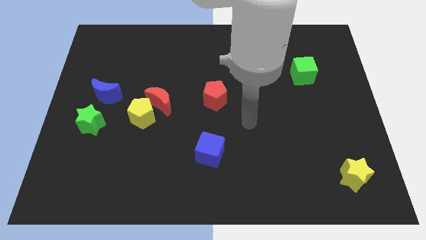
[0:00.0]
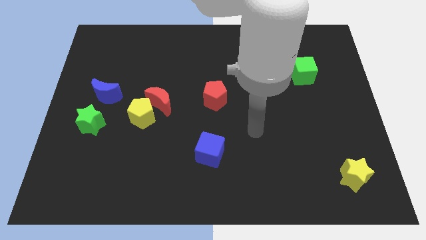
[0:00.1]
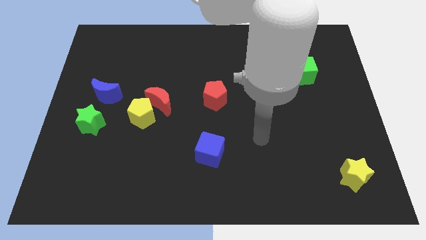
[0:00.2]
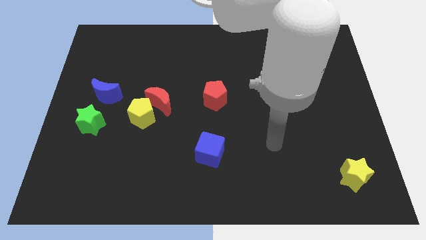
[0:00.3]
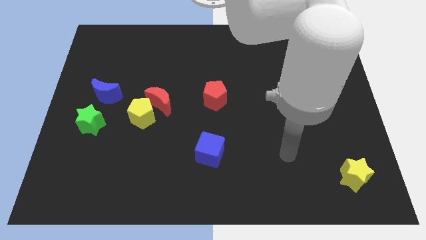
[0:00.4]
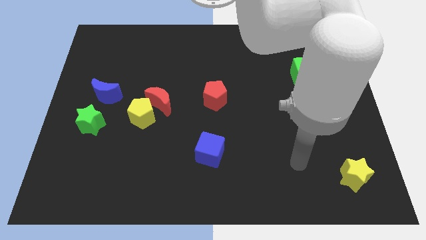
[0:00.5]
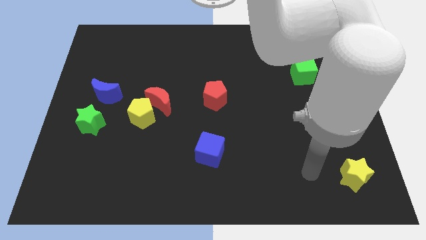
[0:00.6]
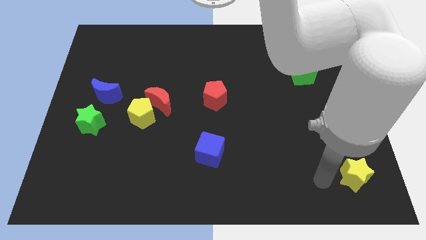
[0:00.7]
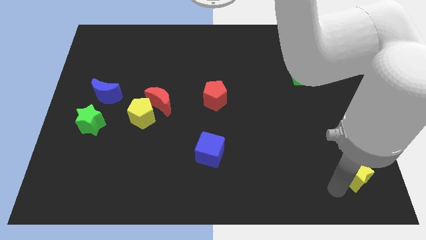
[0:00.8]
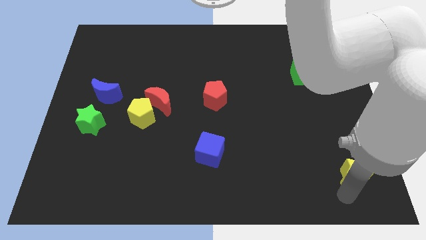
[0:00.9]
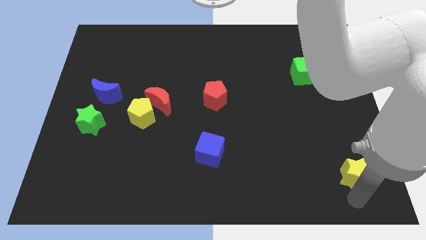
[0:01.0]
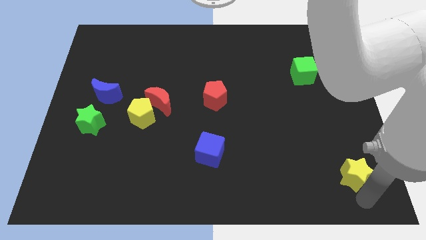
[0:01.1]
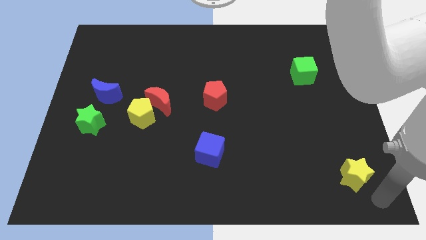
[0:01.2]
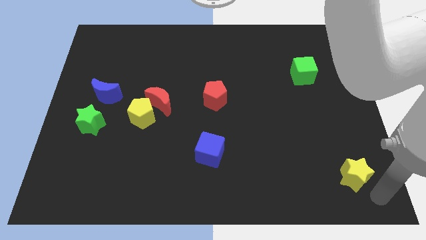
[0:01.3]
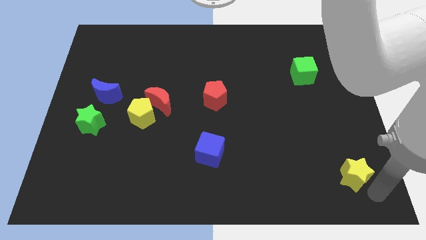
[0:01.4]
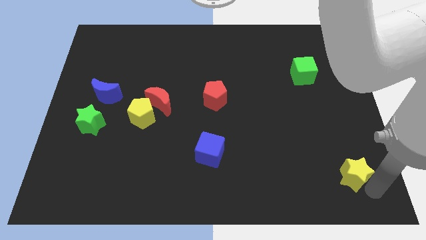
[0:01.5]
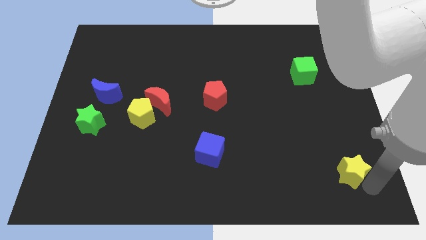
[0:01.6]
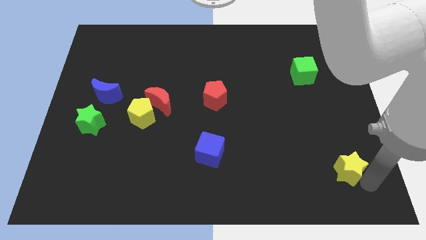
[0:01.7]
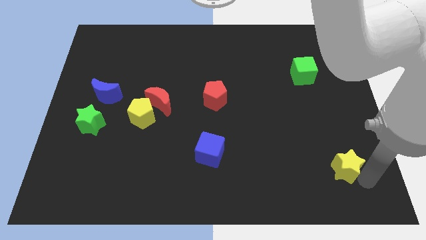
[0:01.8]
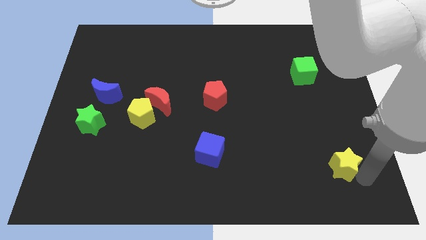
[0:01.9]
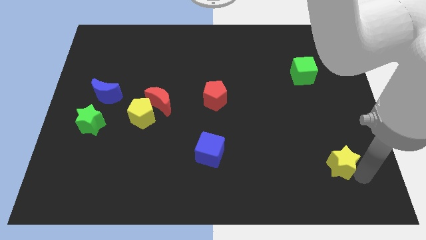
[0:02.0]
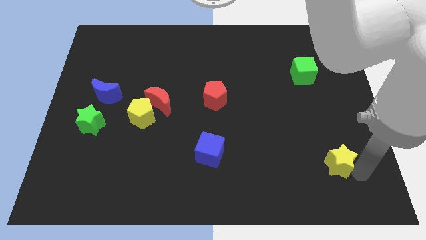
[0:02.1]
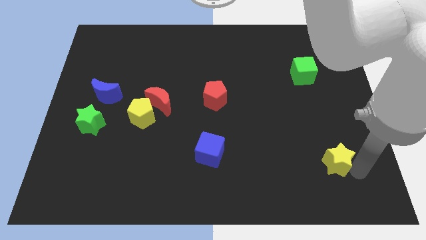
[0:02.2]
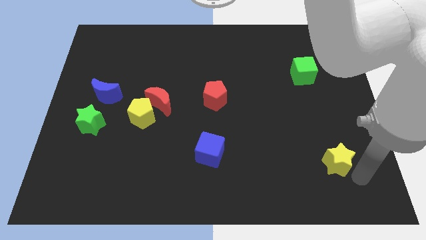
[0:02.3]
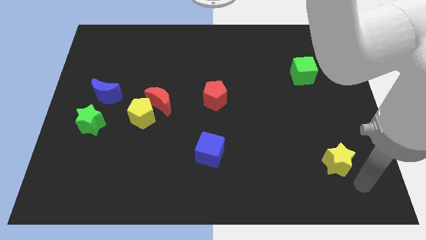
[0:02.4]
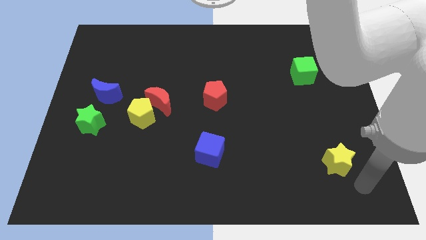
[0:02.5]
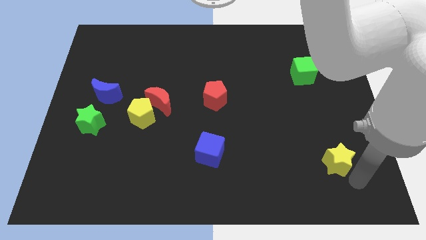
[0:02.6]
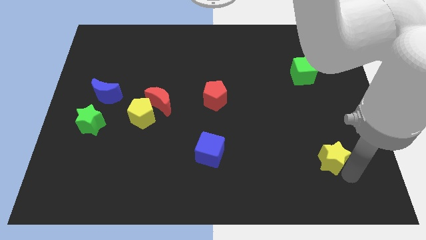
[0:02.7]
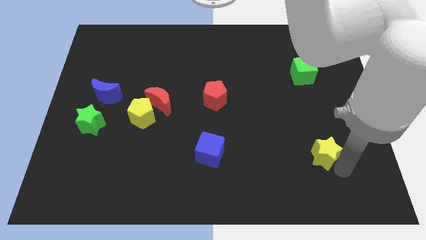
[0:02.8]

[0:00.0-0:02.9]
push the yellow star upwards and left diagonally slightly

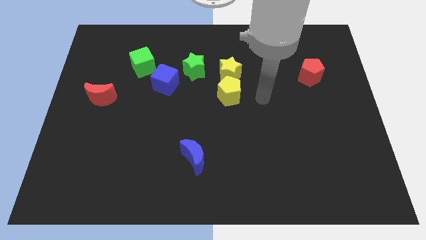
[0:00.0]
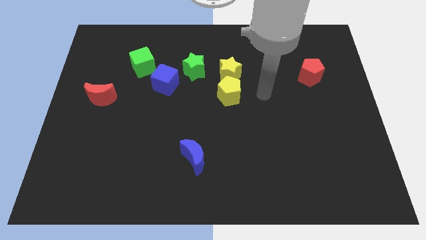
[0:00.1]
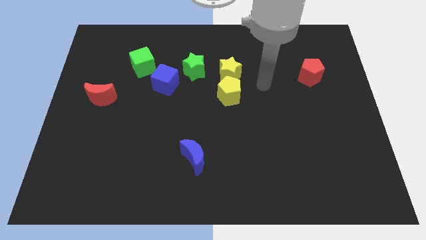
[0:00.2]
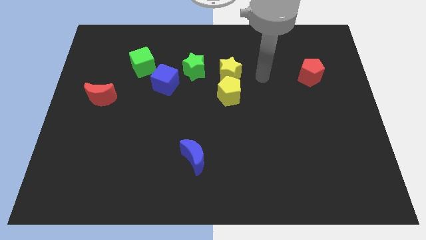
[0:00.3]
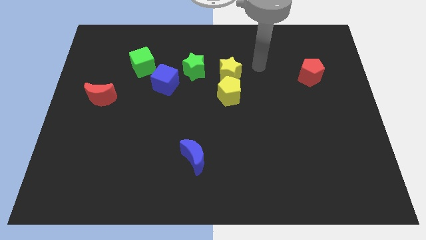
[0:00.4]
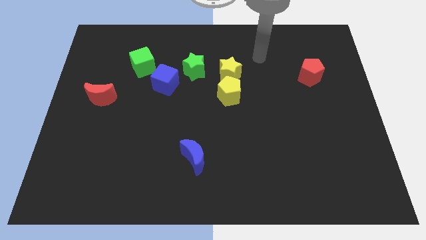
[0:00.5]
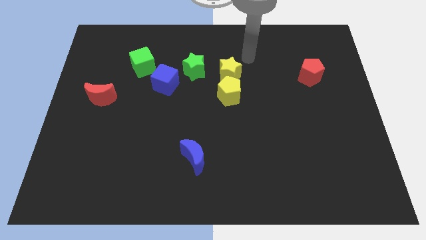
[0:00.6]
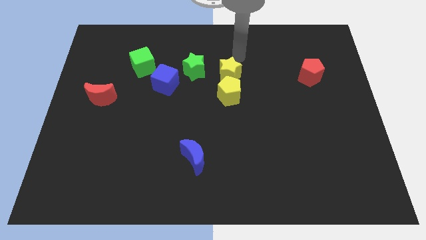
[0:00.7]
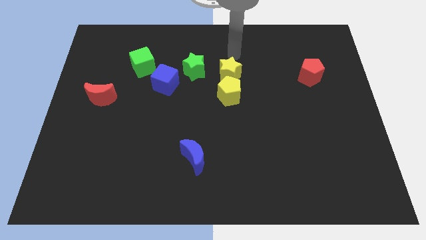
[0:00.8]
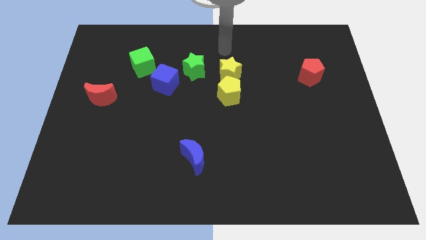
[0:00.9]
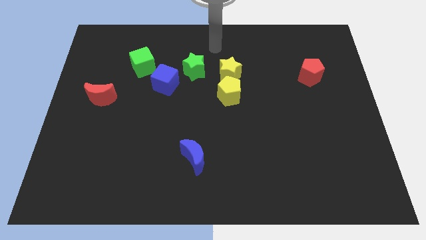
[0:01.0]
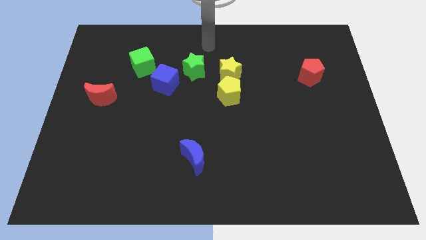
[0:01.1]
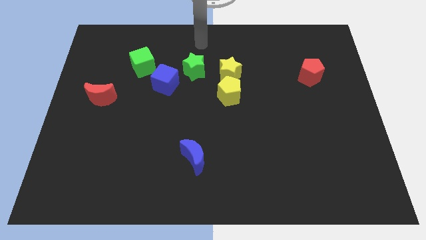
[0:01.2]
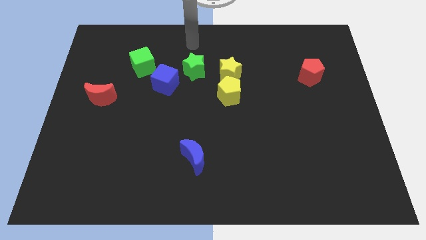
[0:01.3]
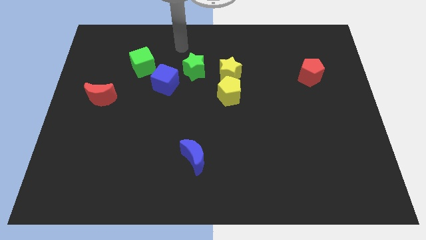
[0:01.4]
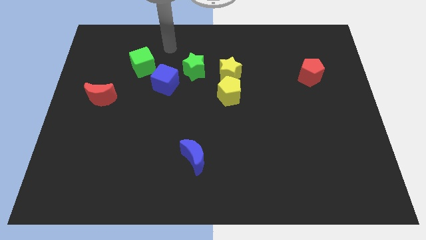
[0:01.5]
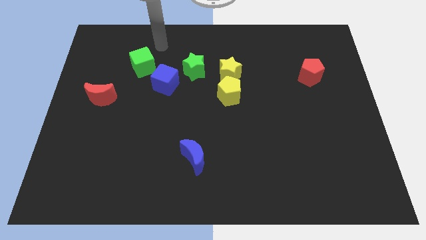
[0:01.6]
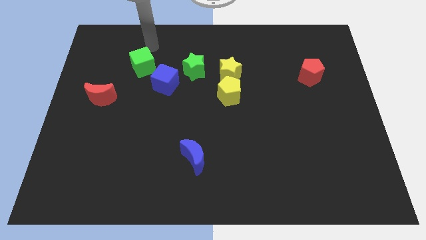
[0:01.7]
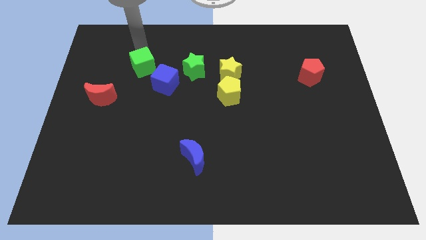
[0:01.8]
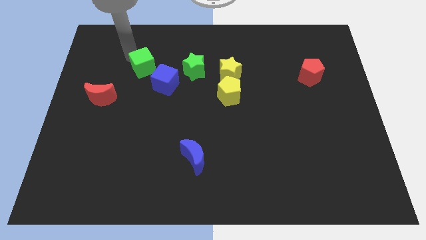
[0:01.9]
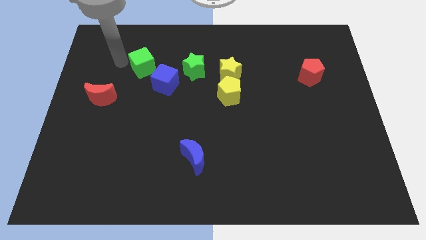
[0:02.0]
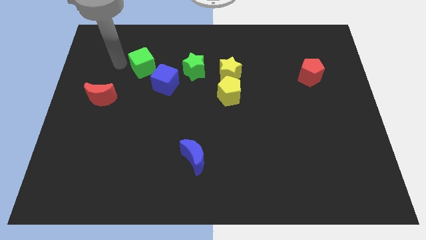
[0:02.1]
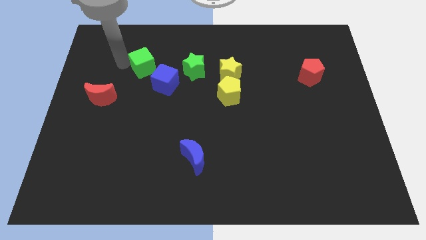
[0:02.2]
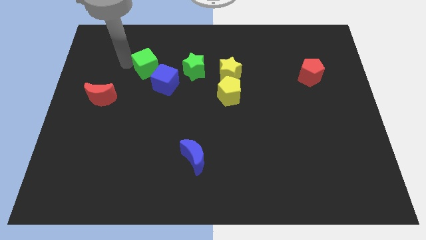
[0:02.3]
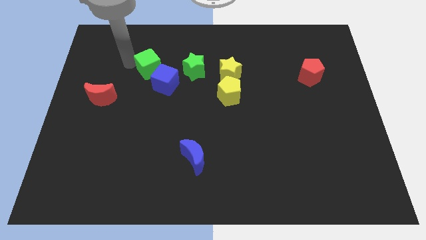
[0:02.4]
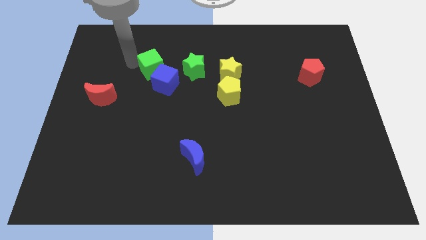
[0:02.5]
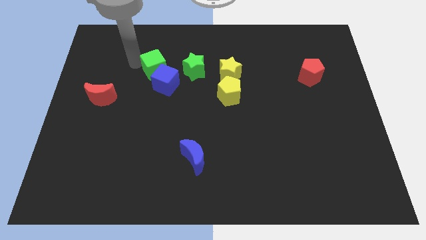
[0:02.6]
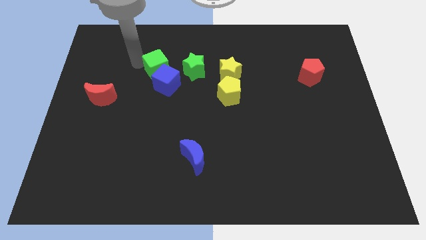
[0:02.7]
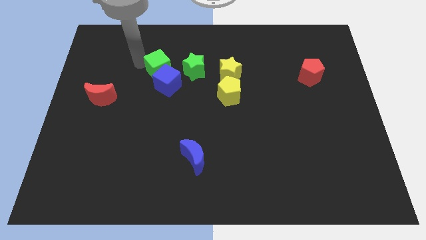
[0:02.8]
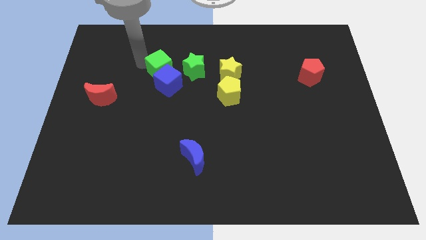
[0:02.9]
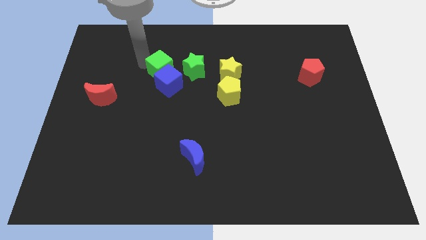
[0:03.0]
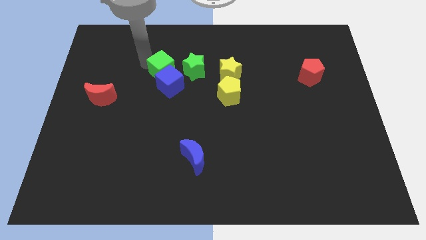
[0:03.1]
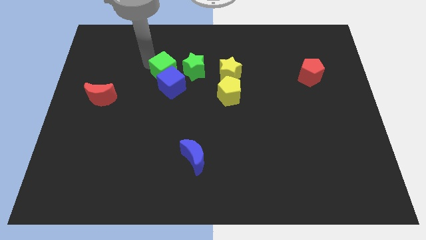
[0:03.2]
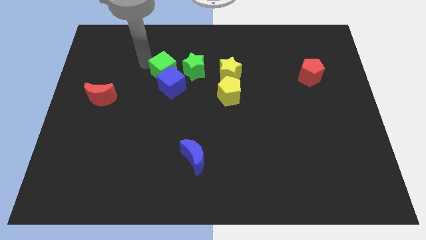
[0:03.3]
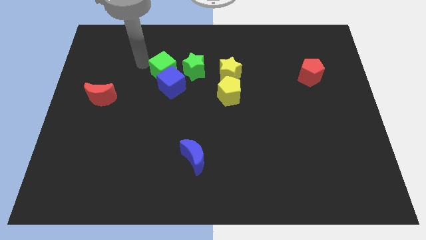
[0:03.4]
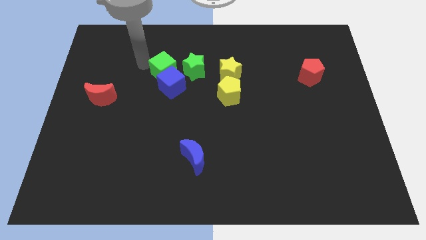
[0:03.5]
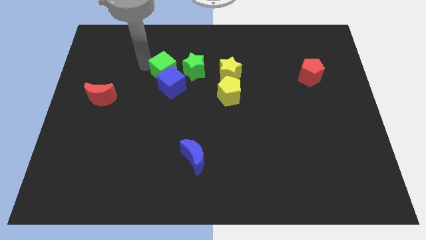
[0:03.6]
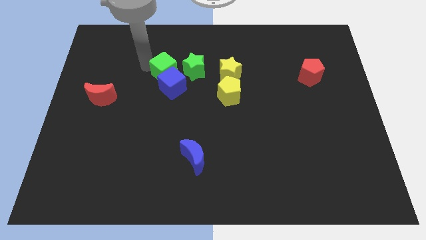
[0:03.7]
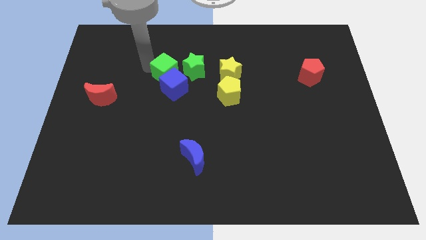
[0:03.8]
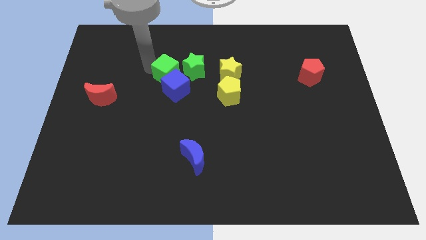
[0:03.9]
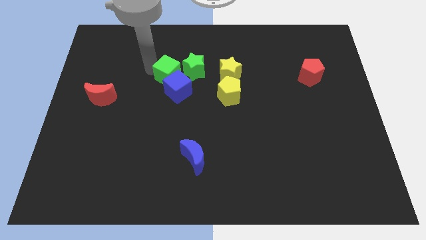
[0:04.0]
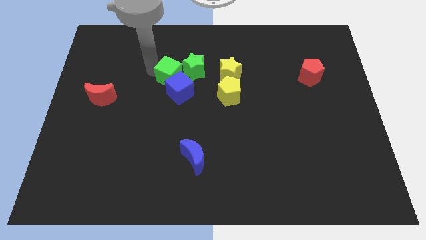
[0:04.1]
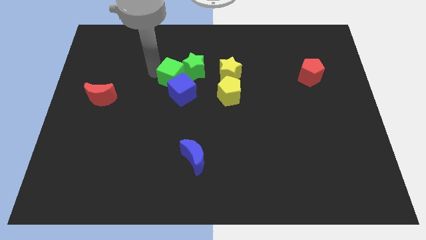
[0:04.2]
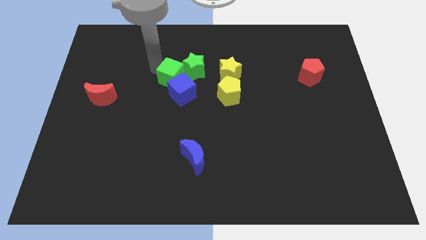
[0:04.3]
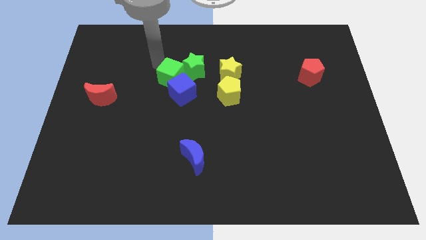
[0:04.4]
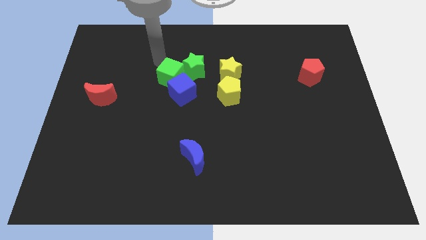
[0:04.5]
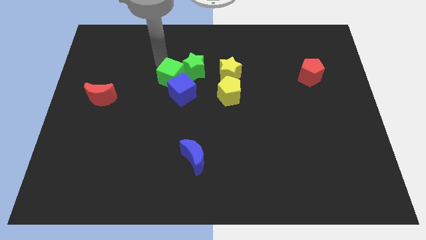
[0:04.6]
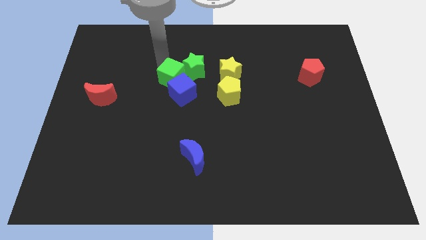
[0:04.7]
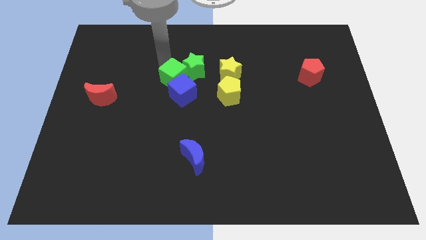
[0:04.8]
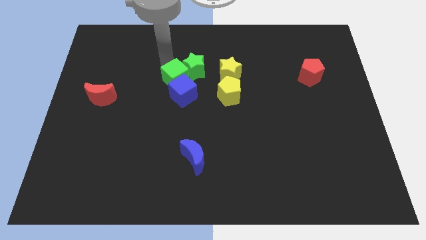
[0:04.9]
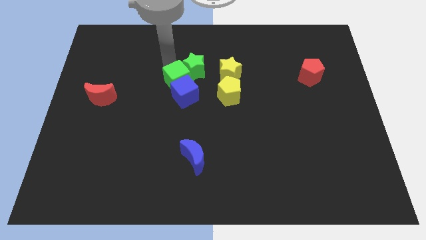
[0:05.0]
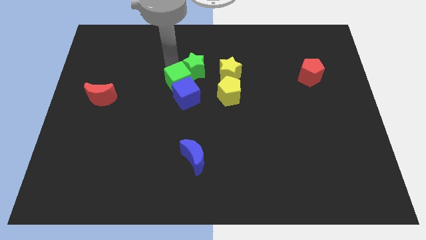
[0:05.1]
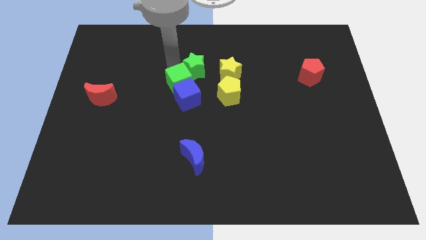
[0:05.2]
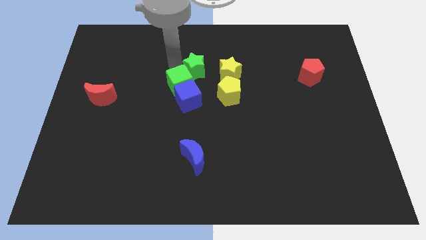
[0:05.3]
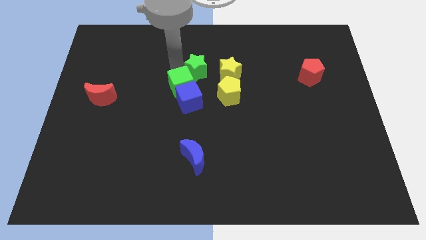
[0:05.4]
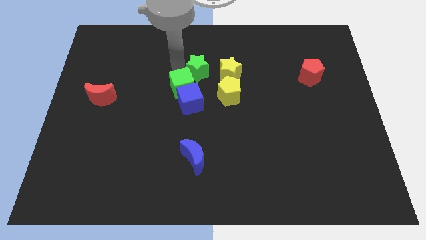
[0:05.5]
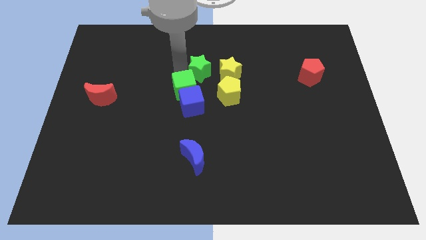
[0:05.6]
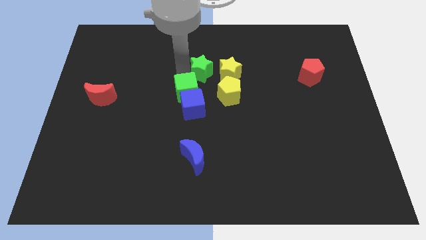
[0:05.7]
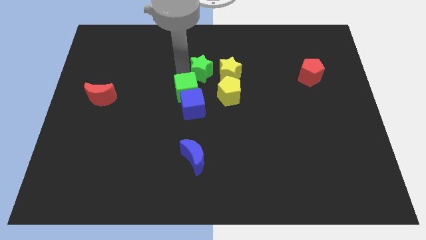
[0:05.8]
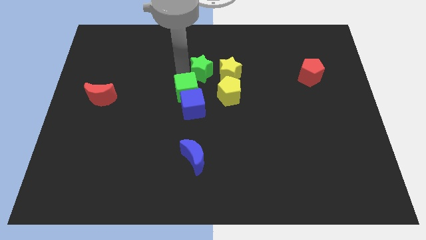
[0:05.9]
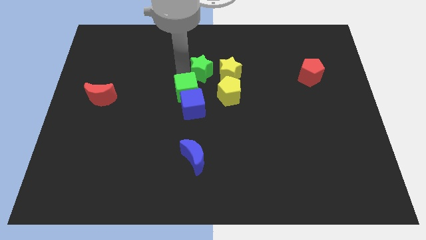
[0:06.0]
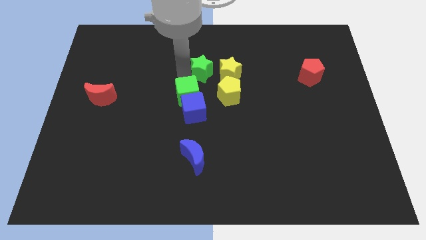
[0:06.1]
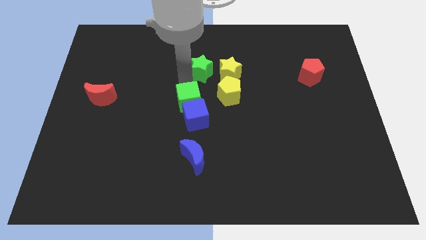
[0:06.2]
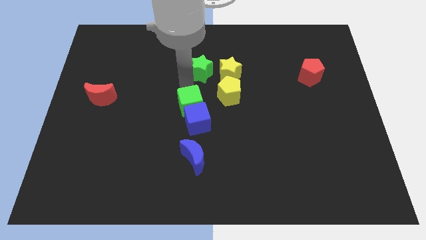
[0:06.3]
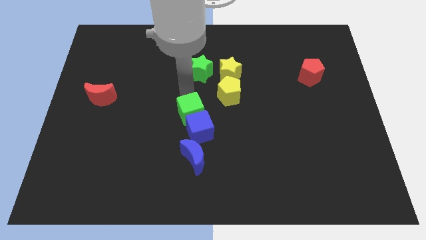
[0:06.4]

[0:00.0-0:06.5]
move the green cube down and right diagonally
